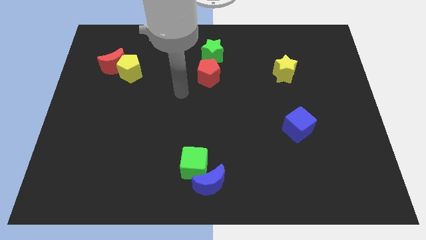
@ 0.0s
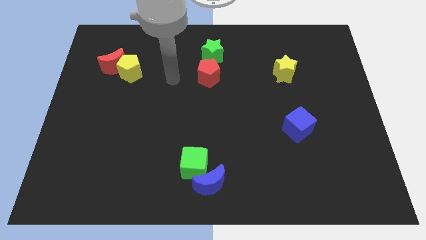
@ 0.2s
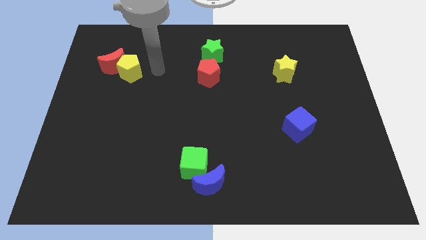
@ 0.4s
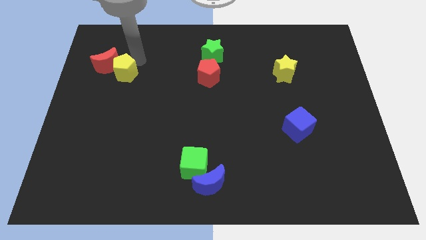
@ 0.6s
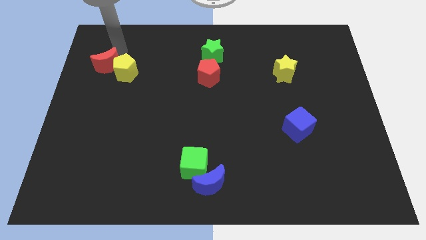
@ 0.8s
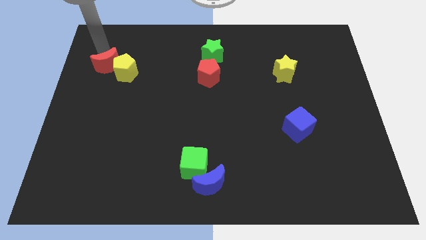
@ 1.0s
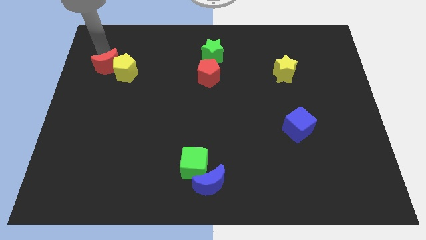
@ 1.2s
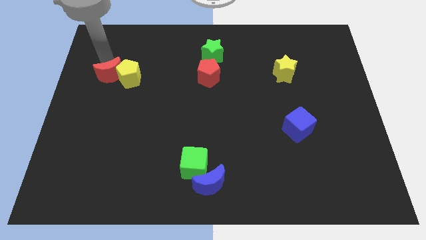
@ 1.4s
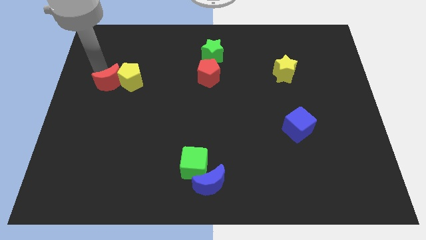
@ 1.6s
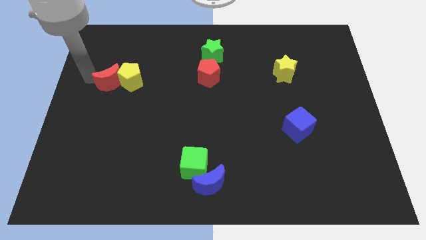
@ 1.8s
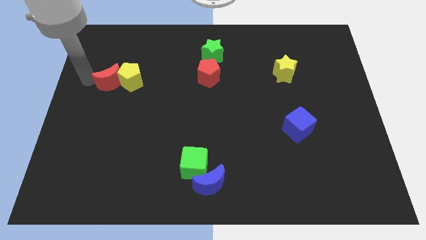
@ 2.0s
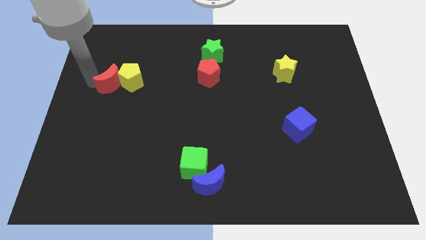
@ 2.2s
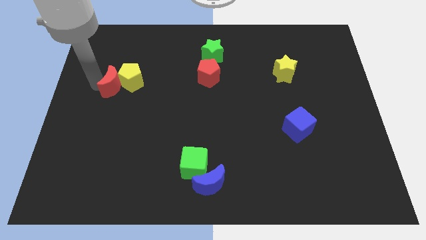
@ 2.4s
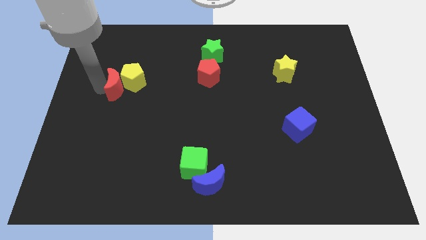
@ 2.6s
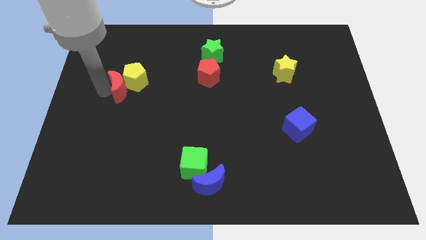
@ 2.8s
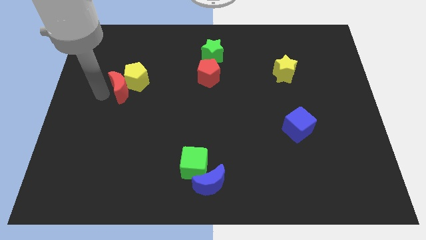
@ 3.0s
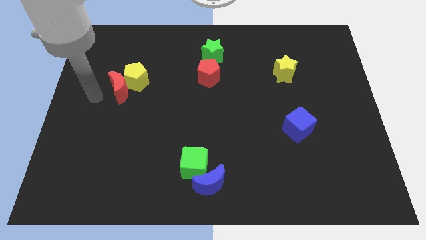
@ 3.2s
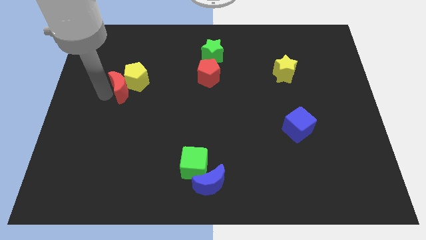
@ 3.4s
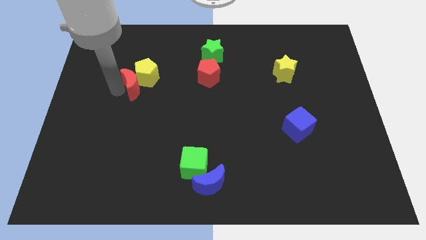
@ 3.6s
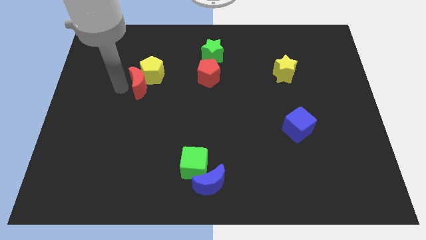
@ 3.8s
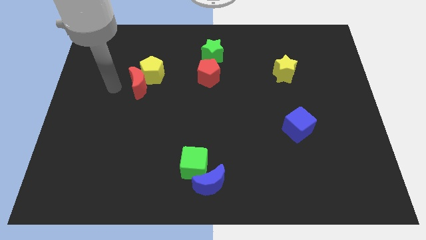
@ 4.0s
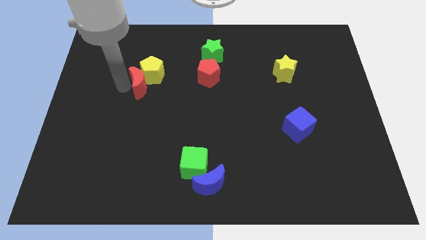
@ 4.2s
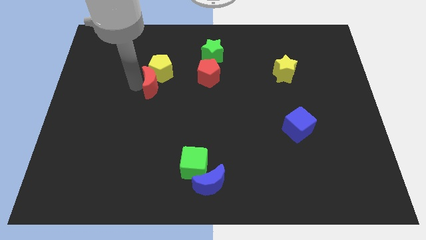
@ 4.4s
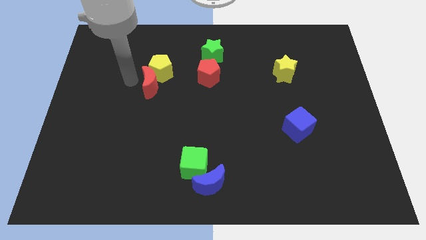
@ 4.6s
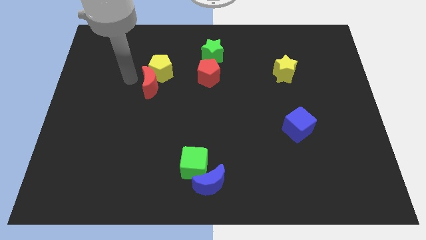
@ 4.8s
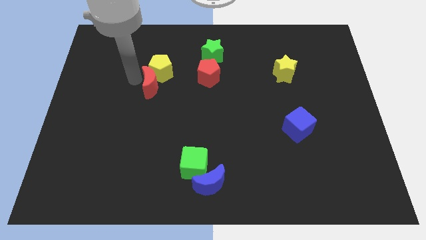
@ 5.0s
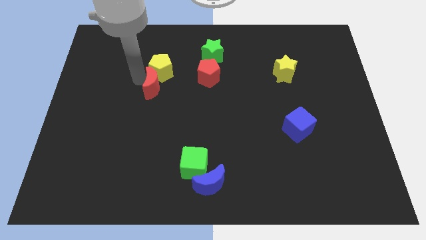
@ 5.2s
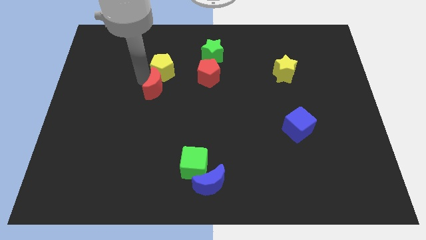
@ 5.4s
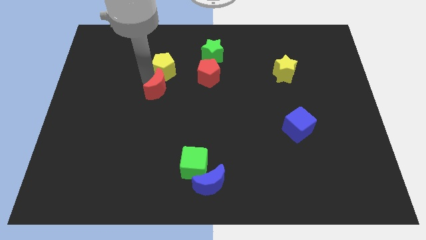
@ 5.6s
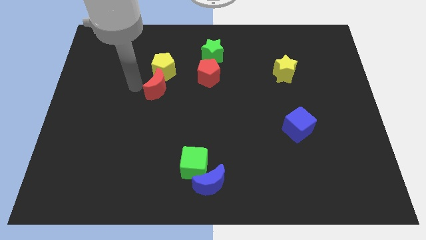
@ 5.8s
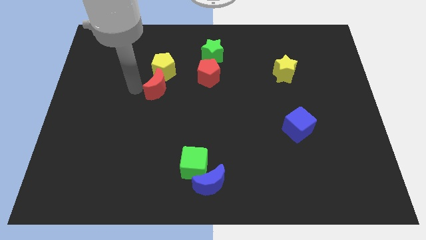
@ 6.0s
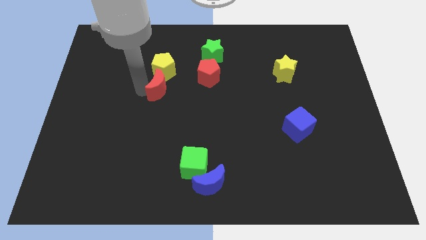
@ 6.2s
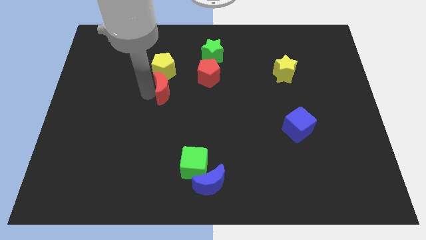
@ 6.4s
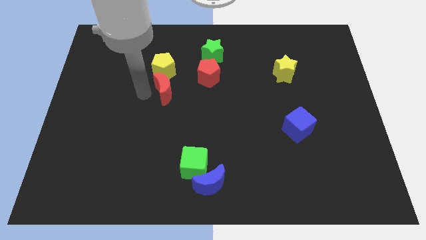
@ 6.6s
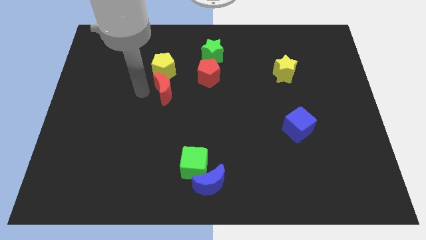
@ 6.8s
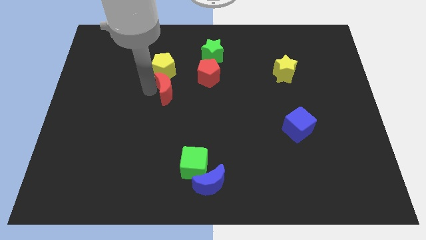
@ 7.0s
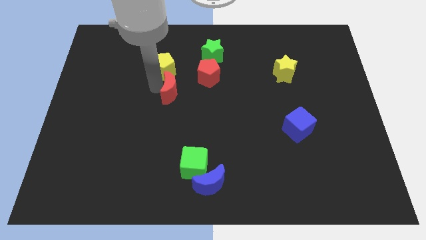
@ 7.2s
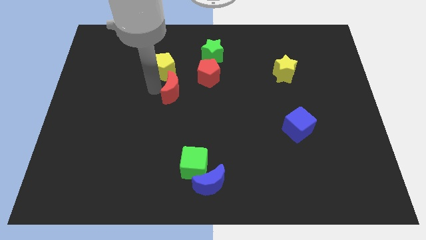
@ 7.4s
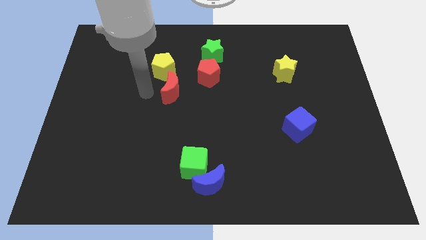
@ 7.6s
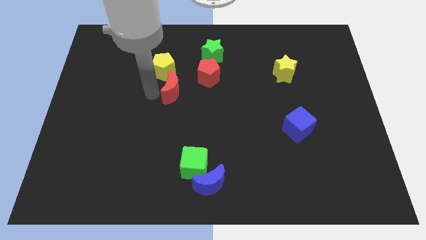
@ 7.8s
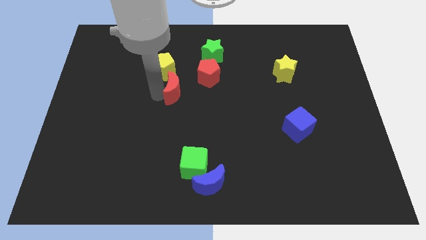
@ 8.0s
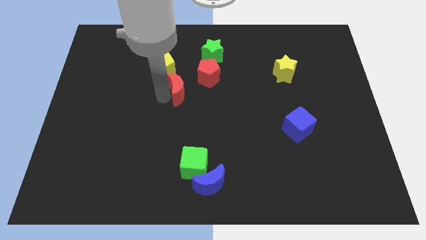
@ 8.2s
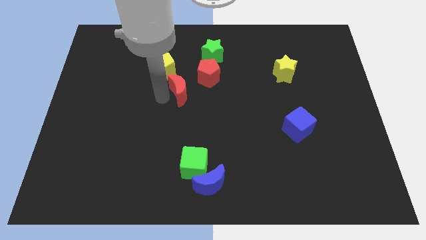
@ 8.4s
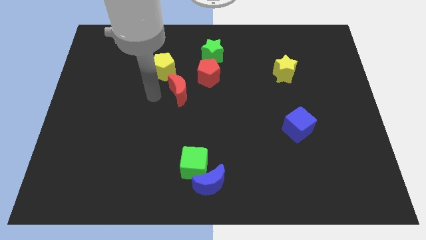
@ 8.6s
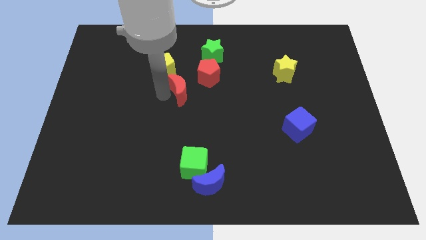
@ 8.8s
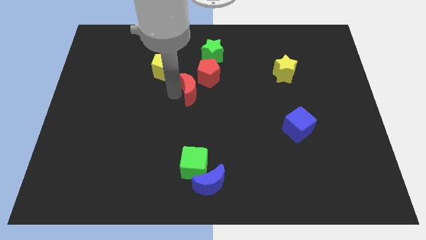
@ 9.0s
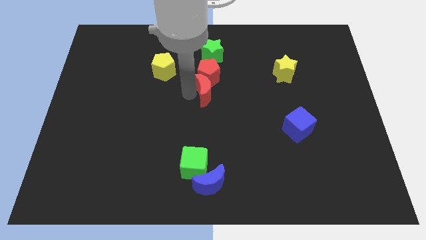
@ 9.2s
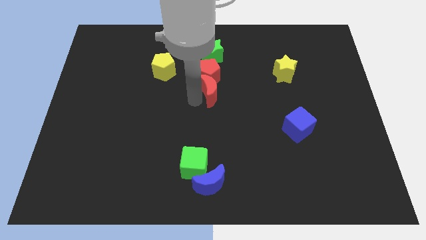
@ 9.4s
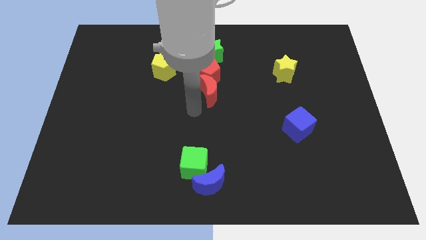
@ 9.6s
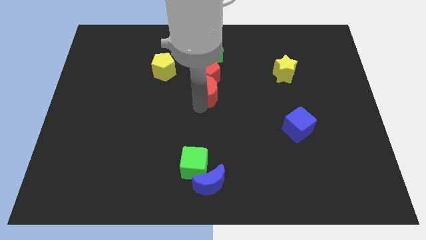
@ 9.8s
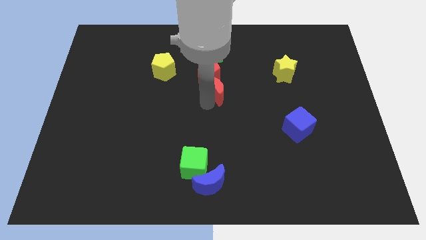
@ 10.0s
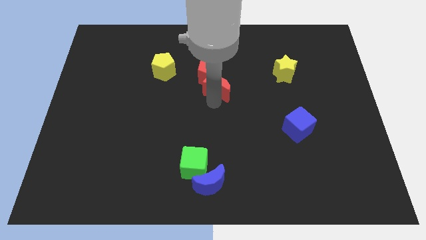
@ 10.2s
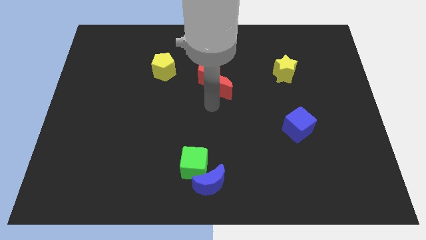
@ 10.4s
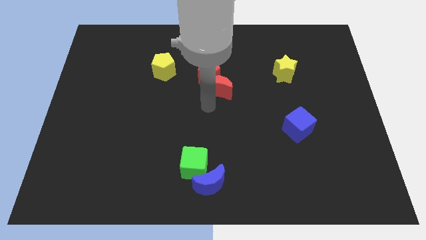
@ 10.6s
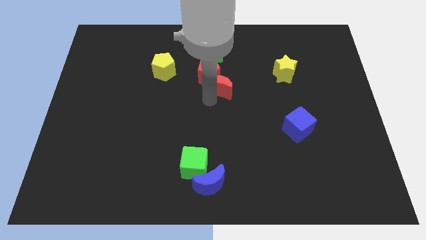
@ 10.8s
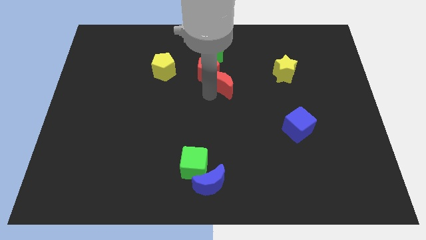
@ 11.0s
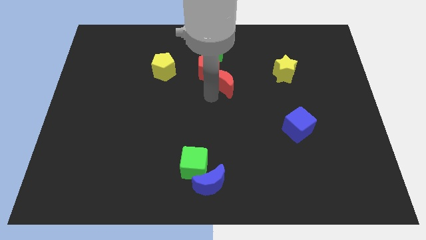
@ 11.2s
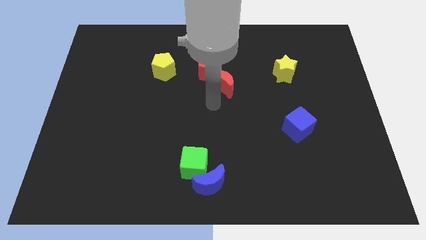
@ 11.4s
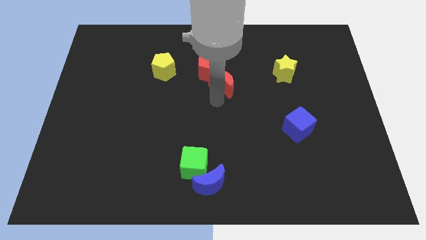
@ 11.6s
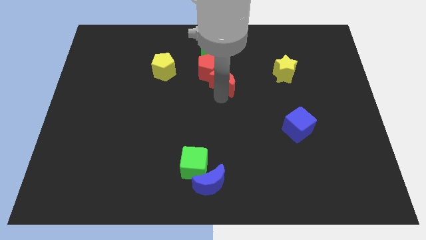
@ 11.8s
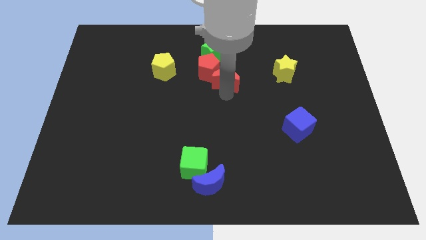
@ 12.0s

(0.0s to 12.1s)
slide the red moon to the bottom right side of the green star

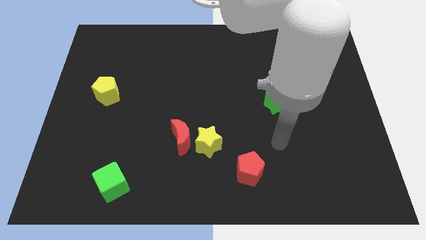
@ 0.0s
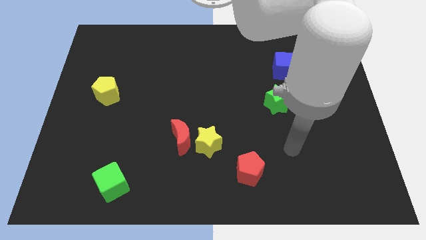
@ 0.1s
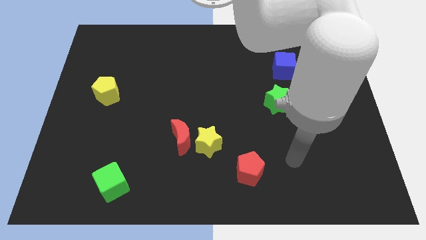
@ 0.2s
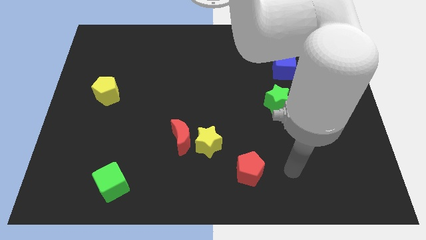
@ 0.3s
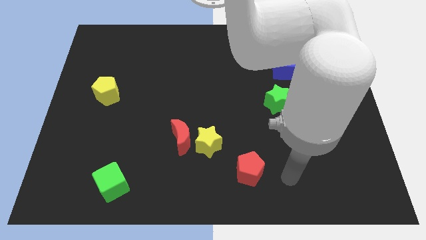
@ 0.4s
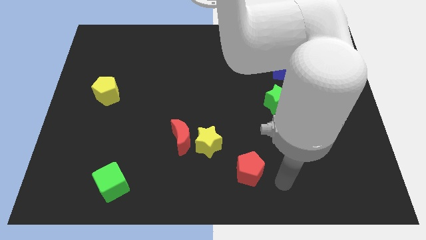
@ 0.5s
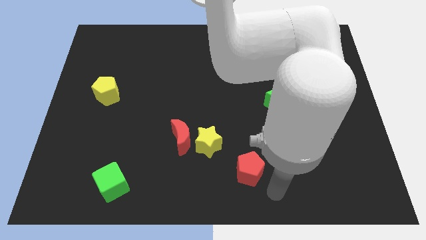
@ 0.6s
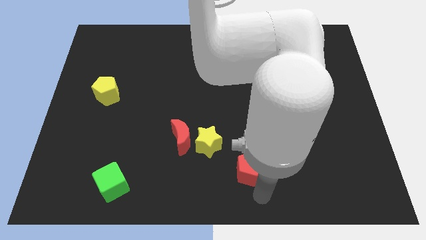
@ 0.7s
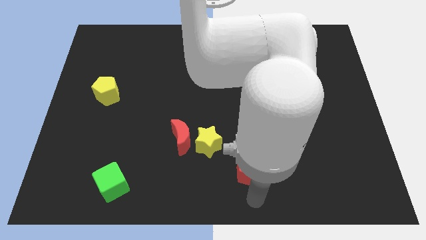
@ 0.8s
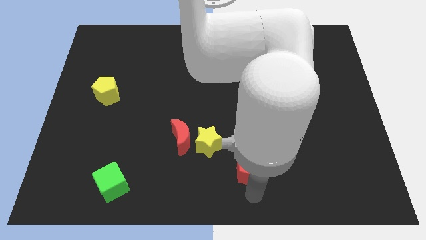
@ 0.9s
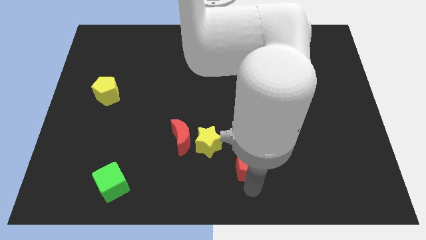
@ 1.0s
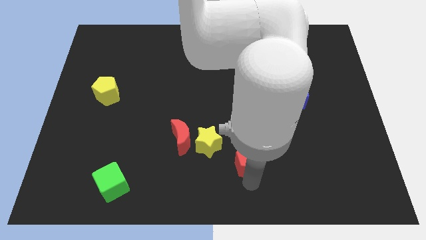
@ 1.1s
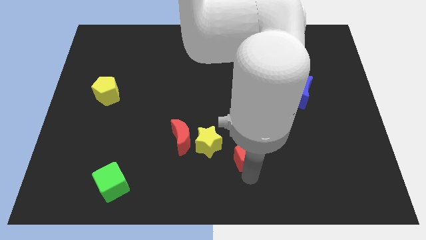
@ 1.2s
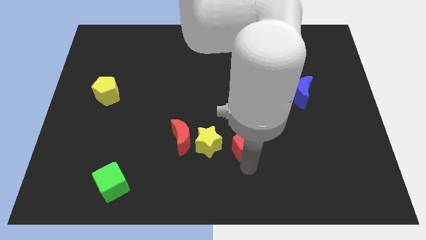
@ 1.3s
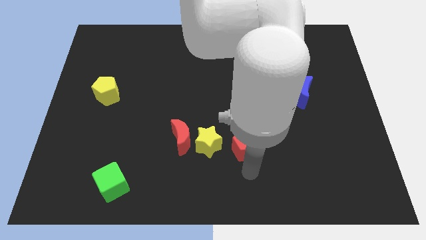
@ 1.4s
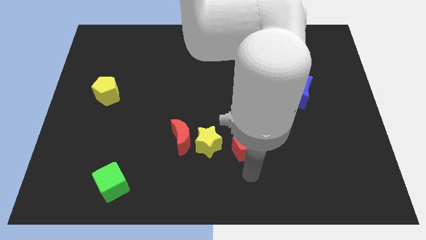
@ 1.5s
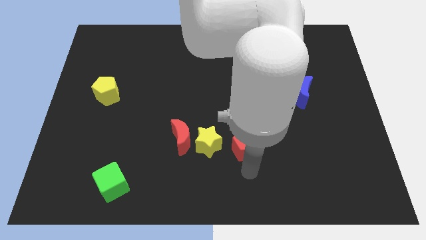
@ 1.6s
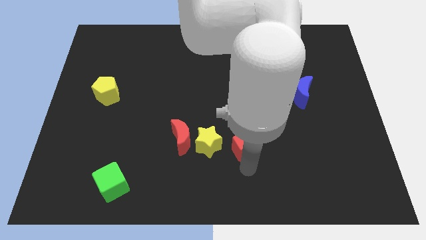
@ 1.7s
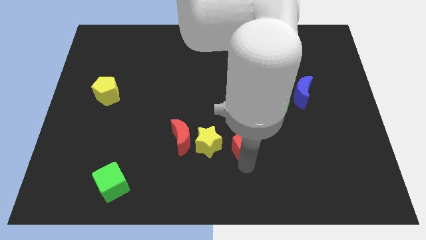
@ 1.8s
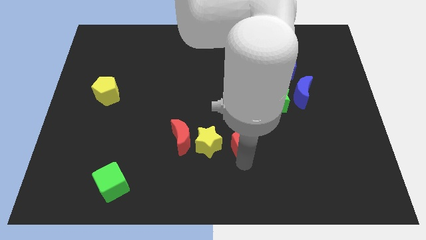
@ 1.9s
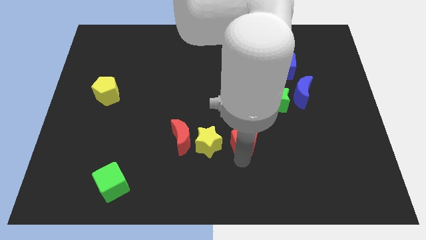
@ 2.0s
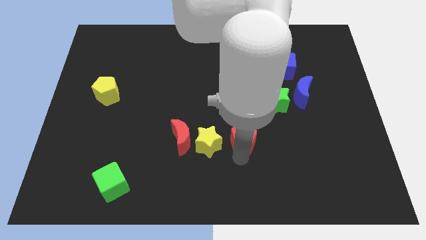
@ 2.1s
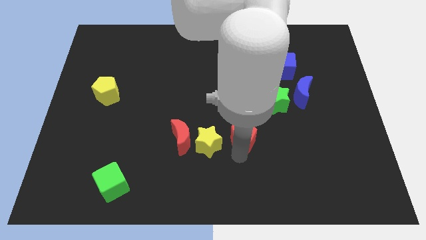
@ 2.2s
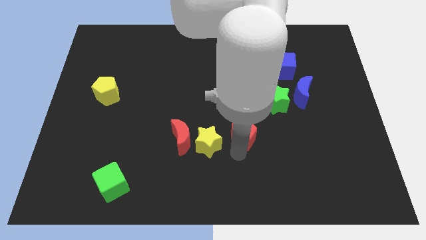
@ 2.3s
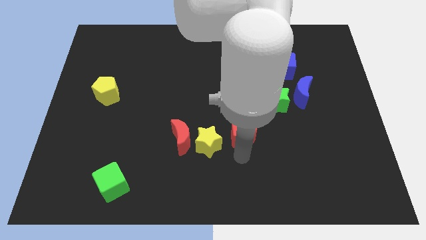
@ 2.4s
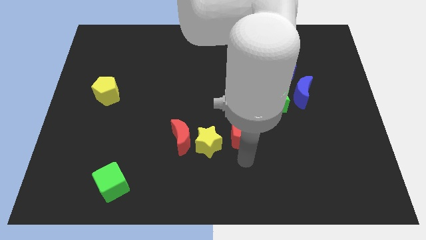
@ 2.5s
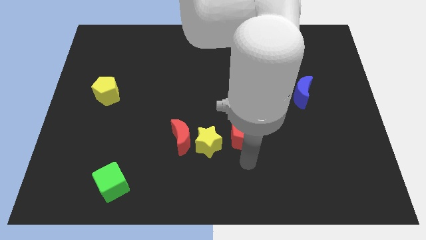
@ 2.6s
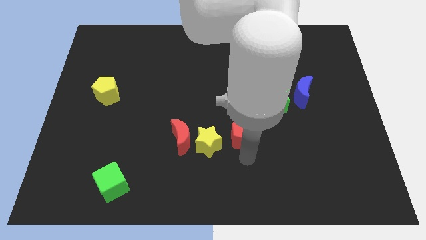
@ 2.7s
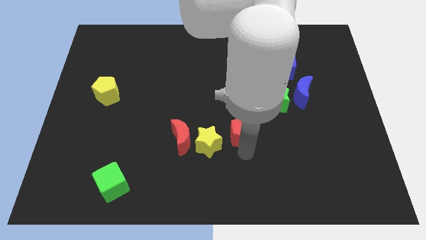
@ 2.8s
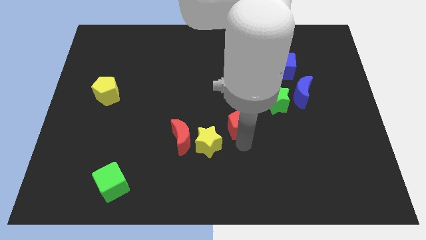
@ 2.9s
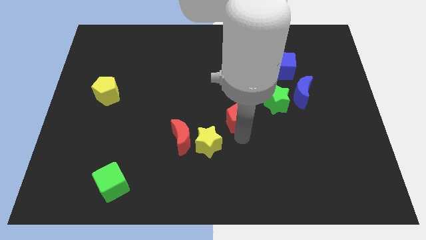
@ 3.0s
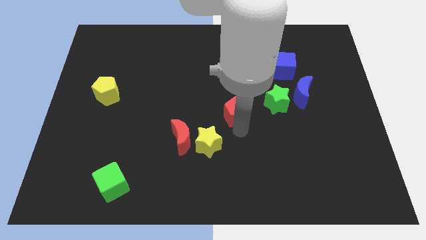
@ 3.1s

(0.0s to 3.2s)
push the red pentagon just left of the green star
